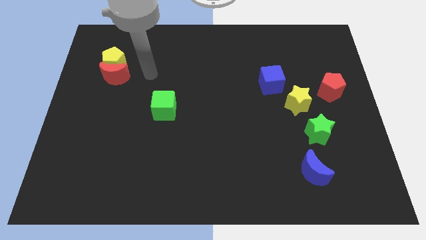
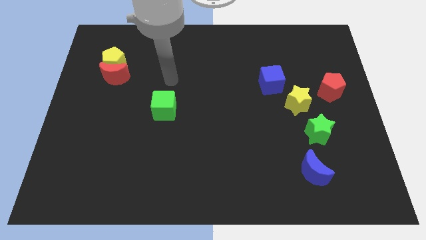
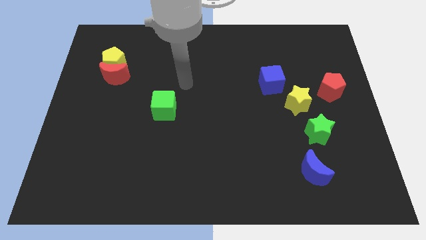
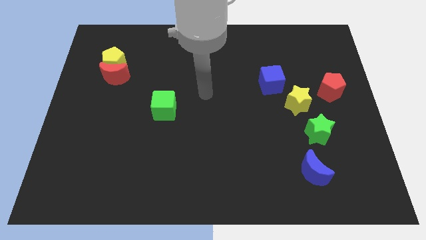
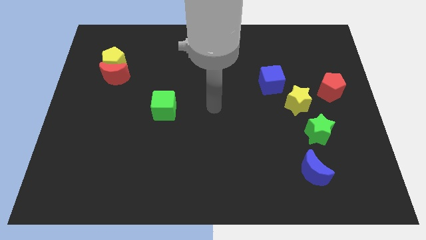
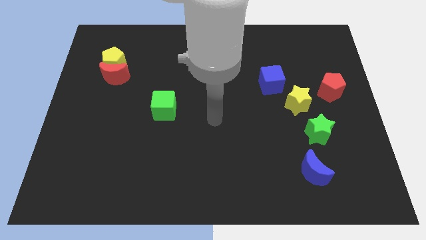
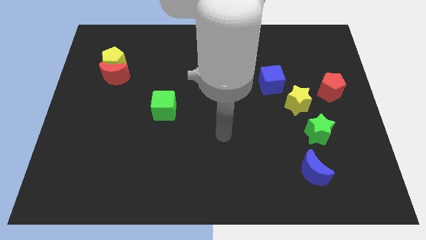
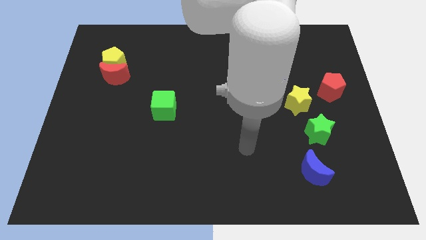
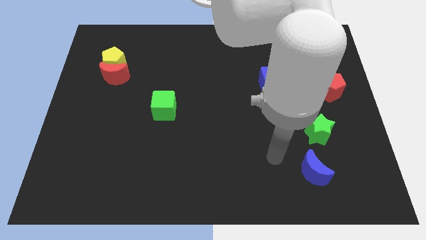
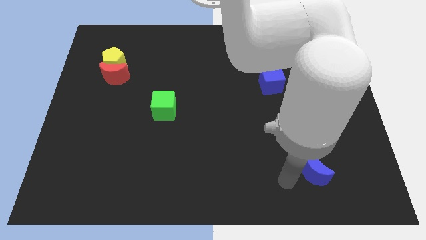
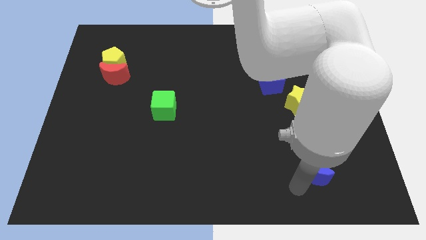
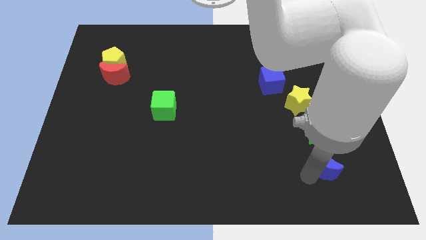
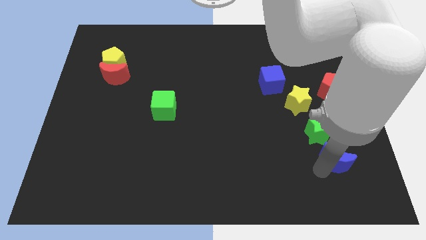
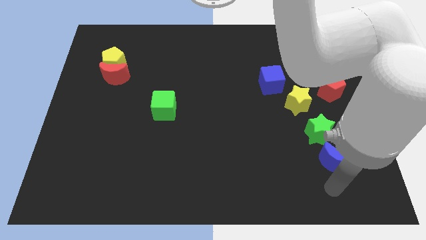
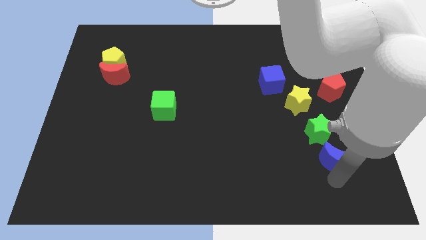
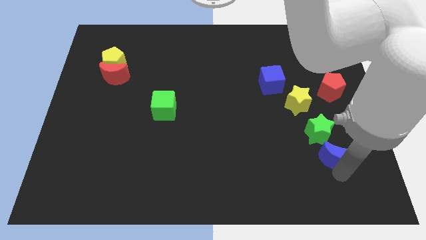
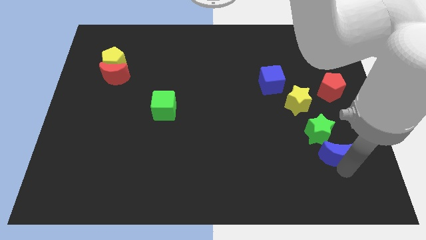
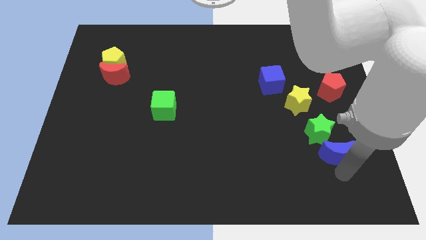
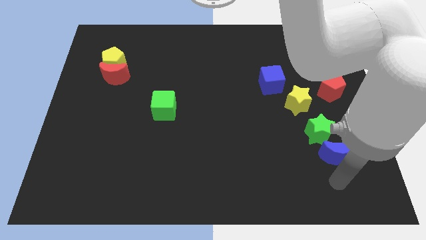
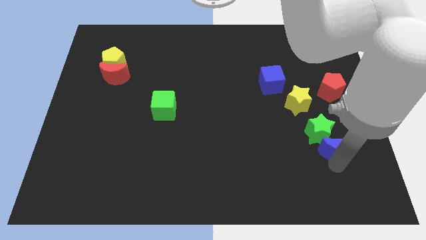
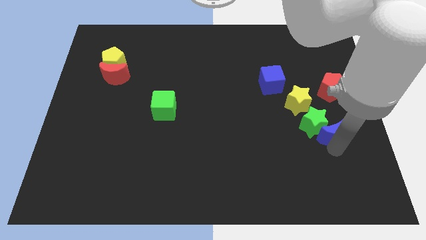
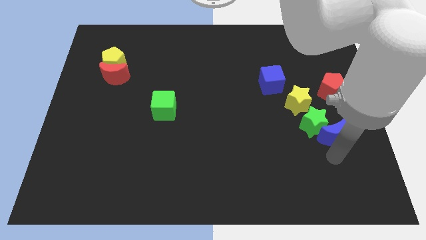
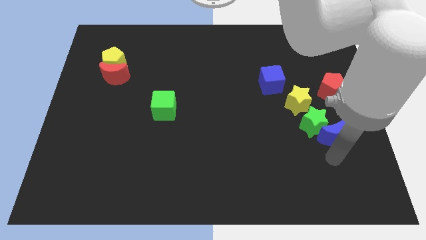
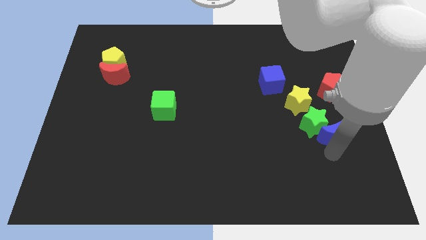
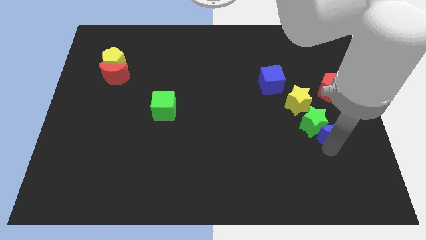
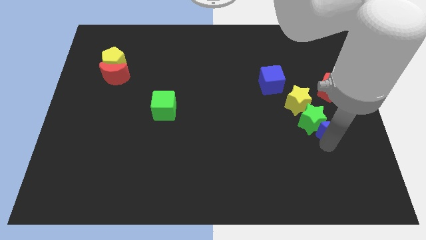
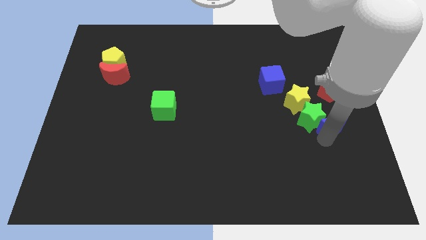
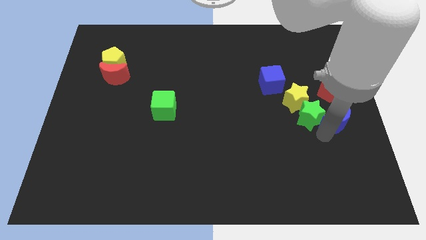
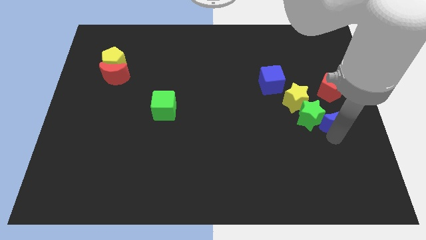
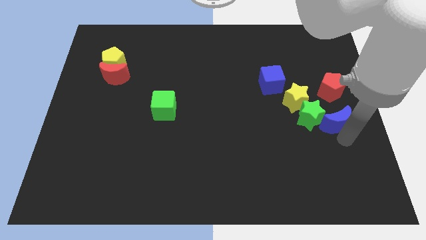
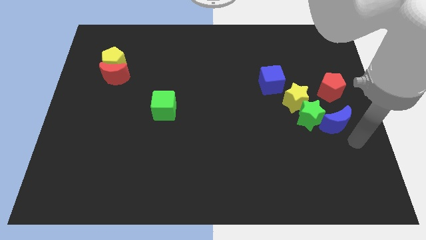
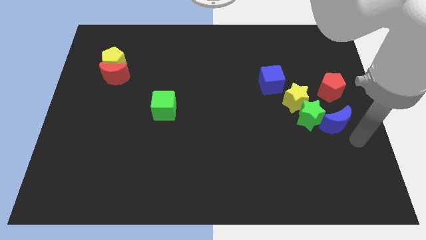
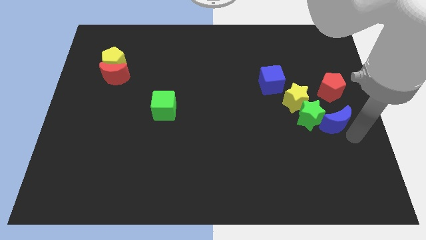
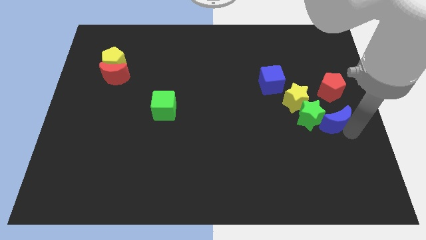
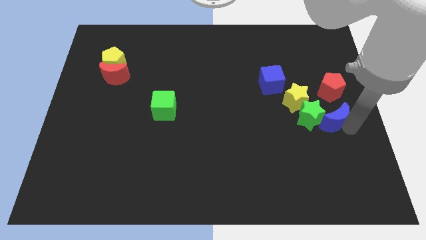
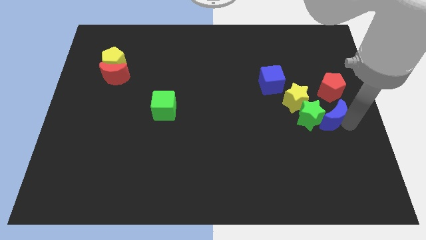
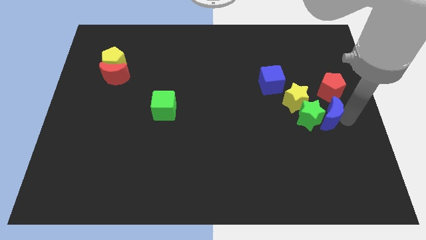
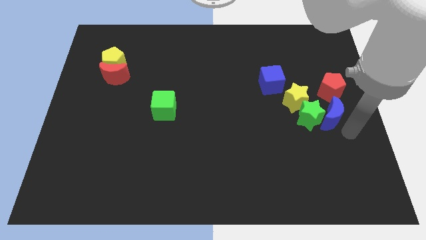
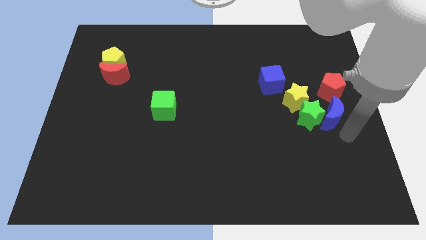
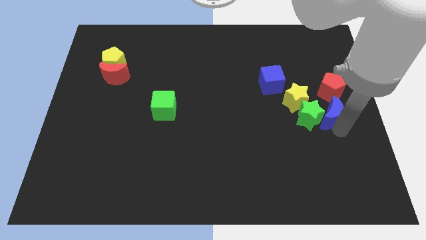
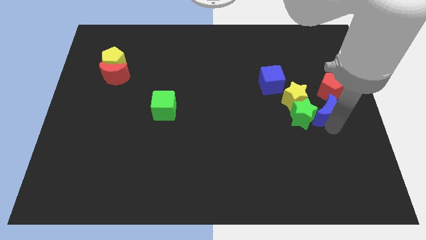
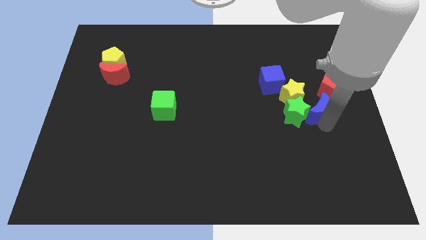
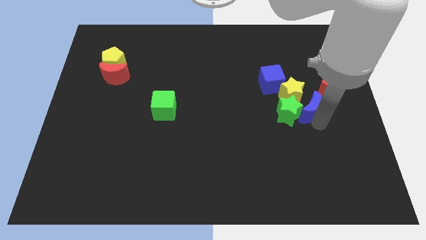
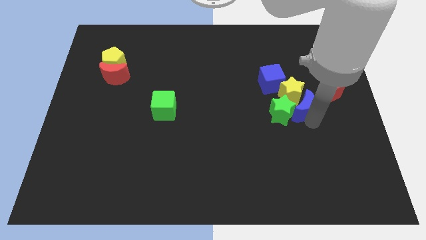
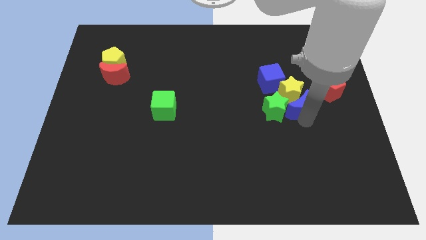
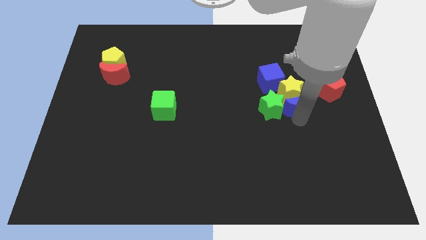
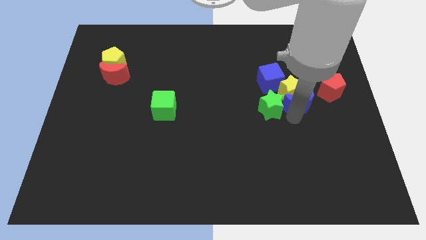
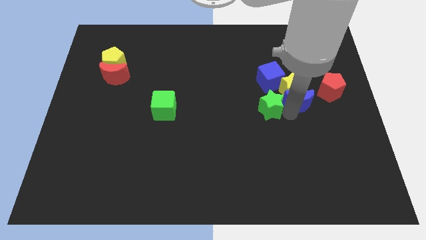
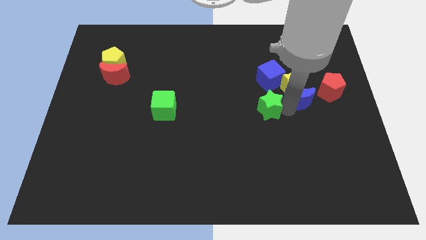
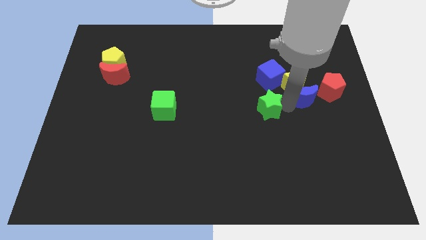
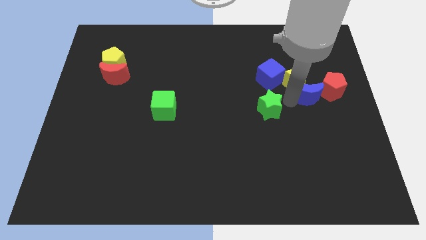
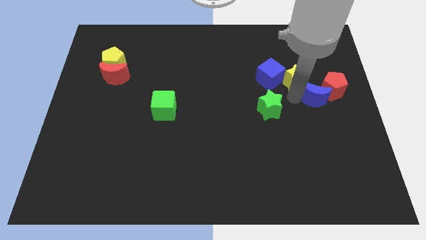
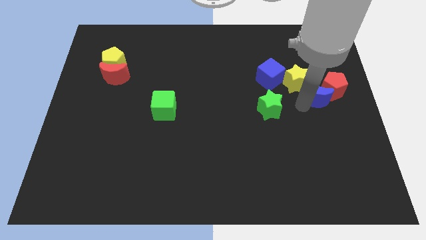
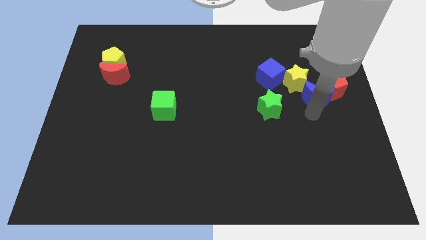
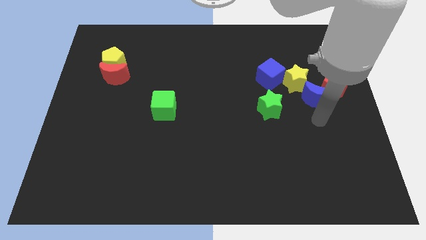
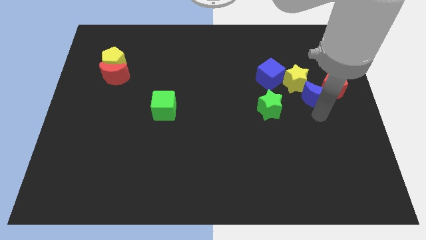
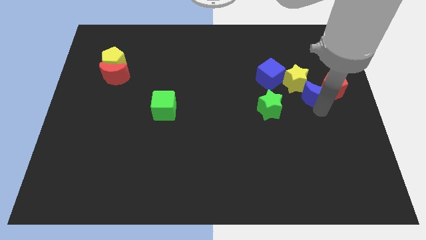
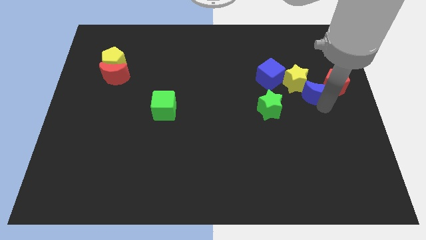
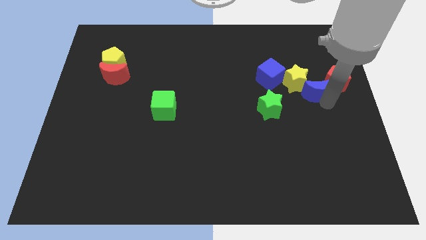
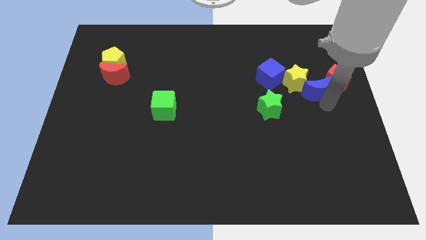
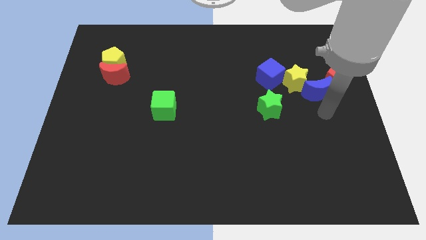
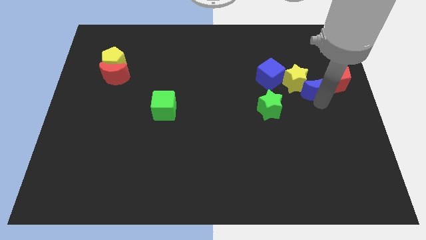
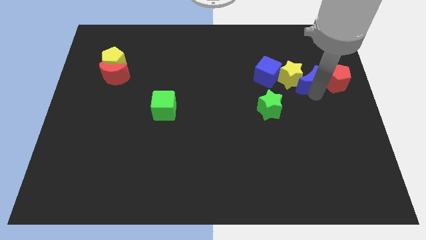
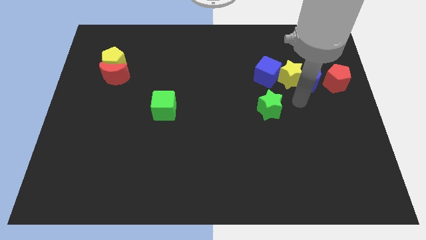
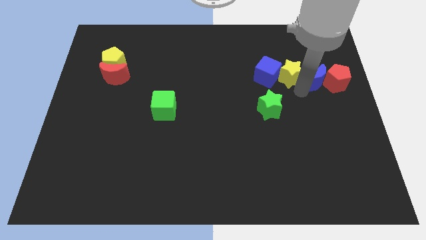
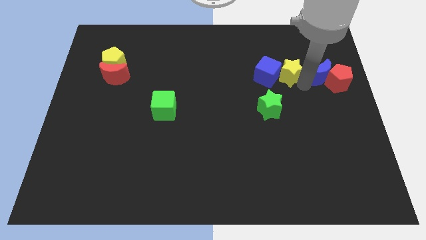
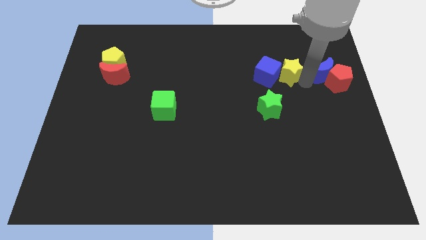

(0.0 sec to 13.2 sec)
move the blue moon to the top side of the red pentagon
